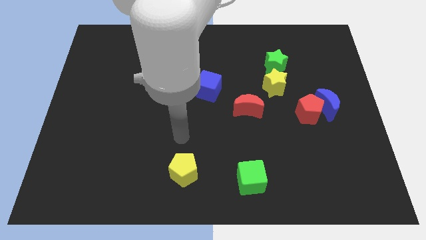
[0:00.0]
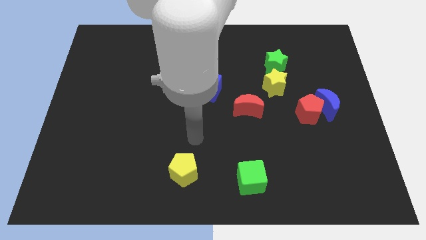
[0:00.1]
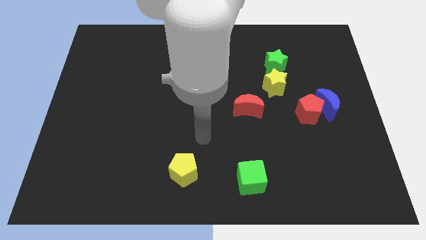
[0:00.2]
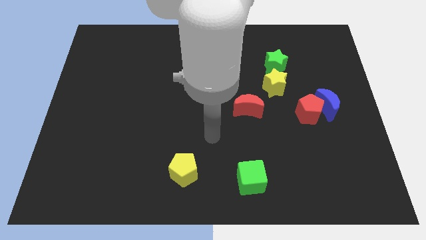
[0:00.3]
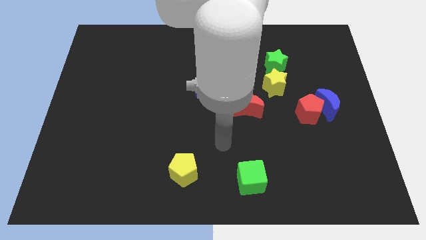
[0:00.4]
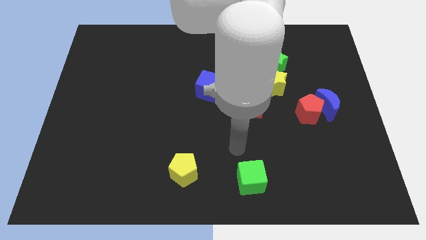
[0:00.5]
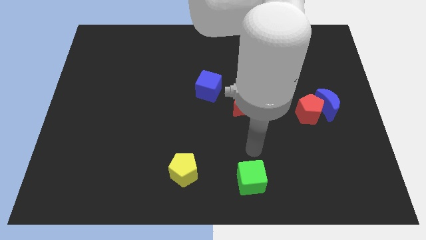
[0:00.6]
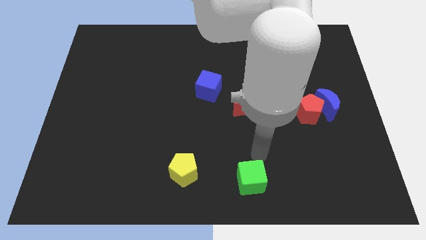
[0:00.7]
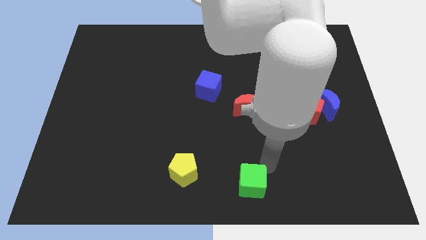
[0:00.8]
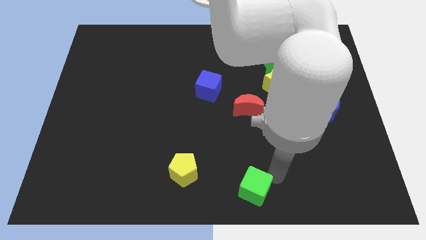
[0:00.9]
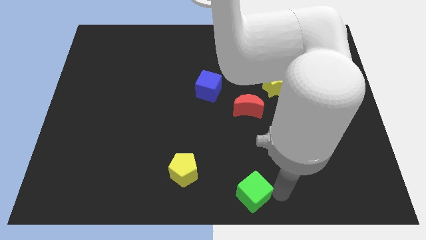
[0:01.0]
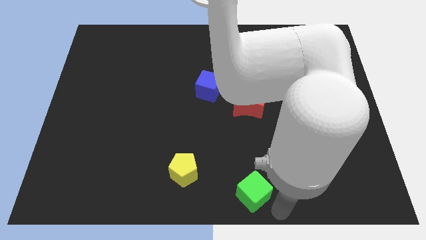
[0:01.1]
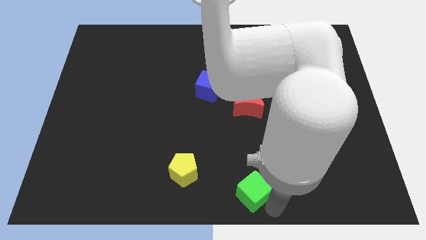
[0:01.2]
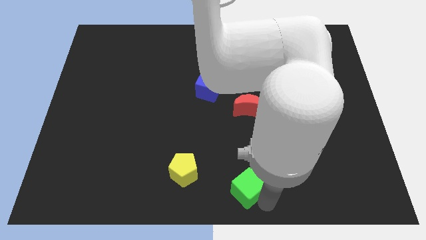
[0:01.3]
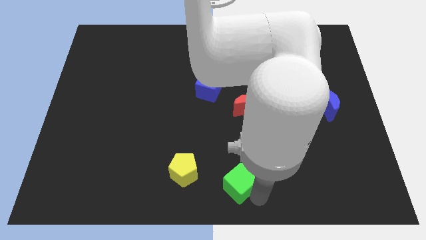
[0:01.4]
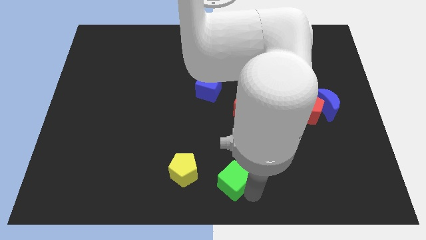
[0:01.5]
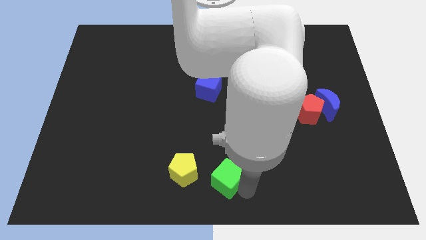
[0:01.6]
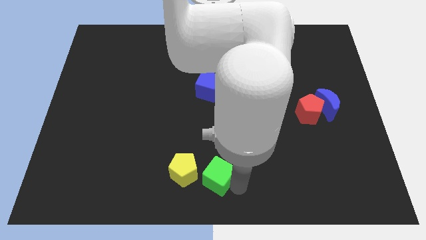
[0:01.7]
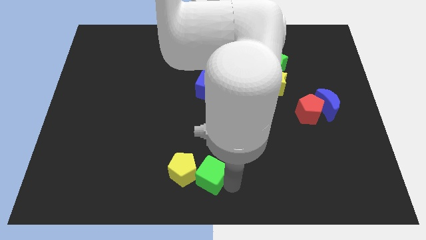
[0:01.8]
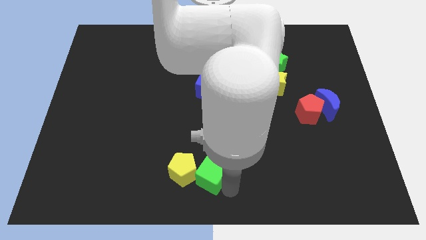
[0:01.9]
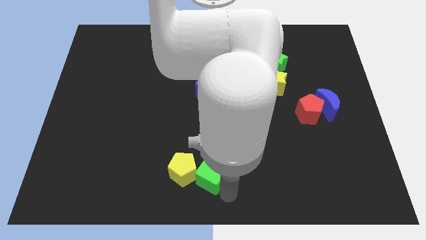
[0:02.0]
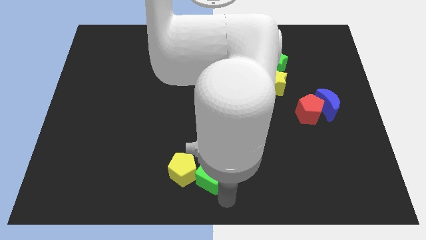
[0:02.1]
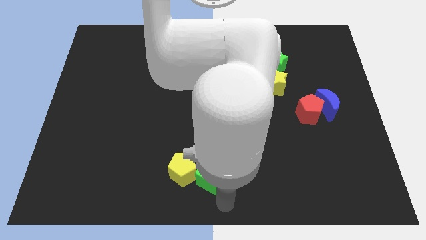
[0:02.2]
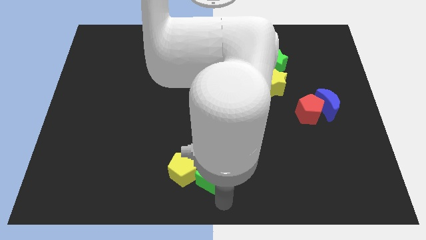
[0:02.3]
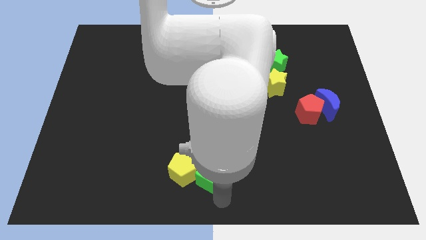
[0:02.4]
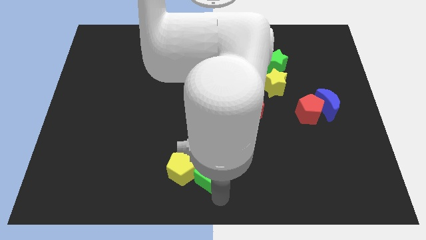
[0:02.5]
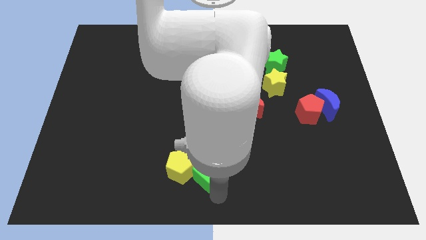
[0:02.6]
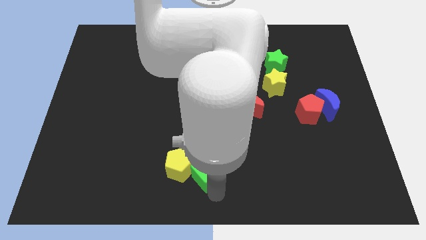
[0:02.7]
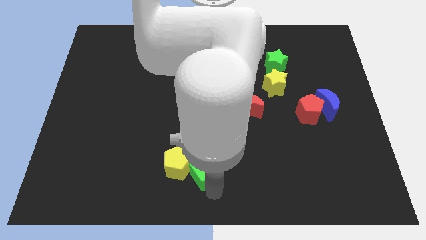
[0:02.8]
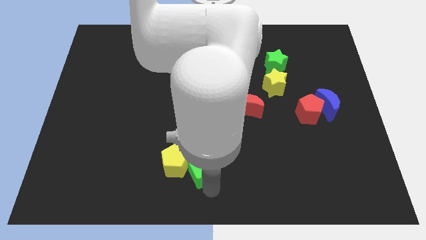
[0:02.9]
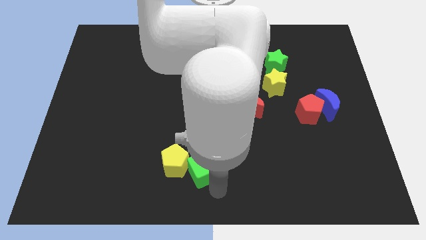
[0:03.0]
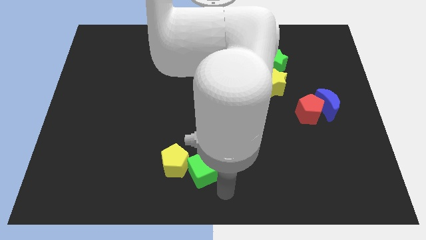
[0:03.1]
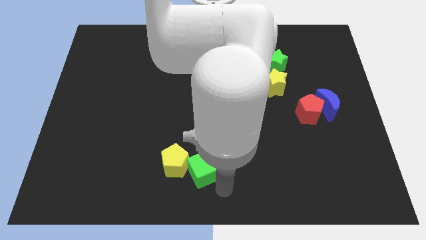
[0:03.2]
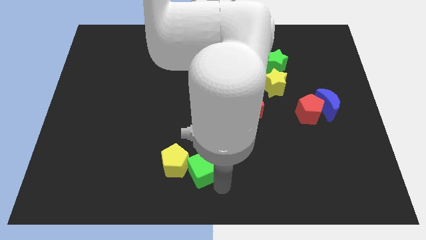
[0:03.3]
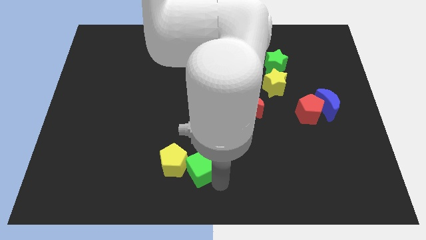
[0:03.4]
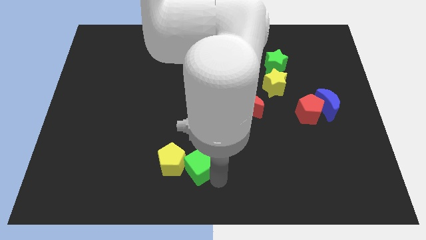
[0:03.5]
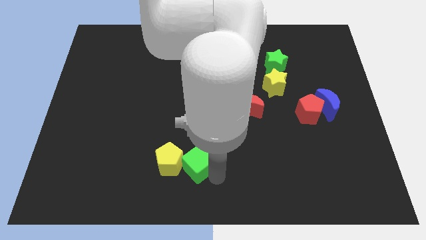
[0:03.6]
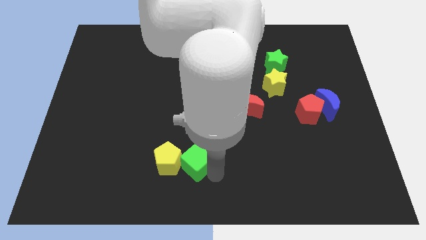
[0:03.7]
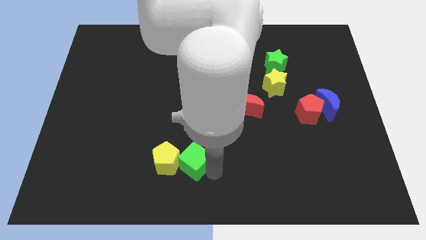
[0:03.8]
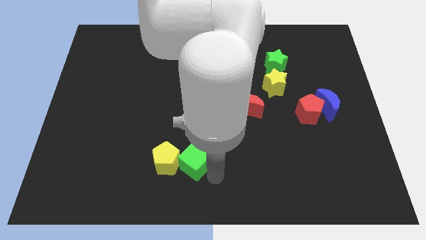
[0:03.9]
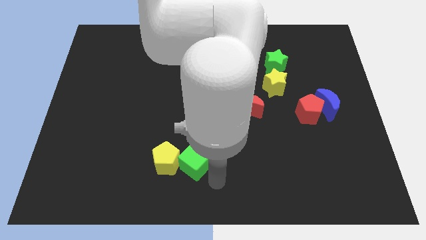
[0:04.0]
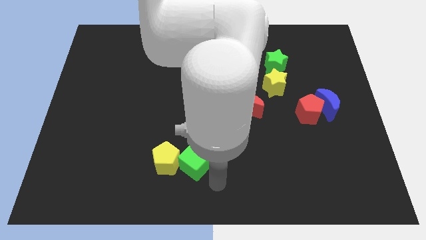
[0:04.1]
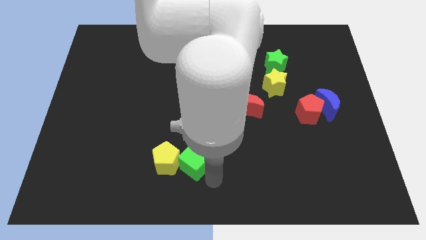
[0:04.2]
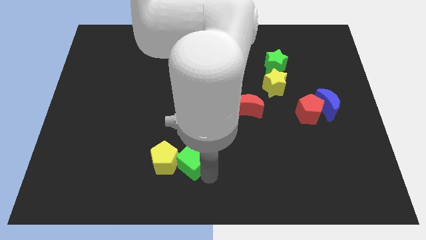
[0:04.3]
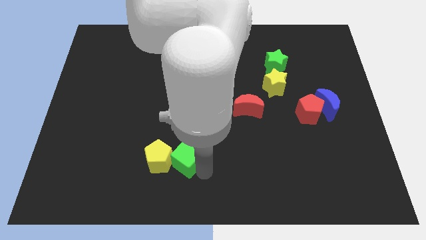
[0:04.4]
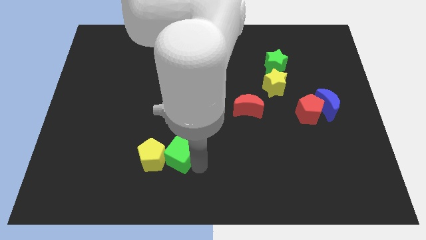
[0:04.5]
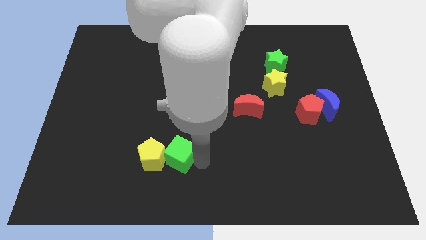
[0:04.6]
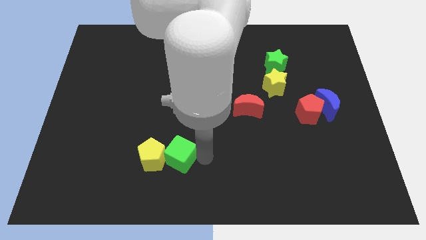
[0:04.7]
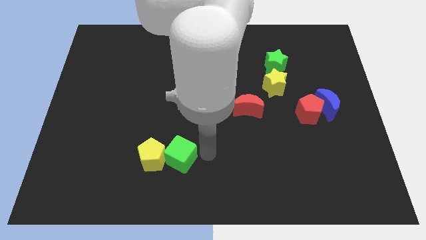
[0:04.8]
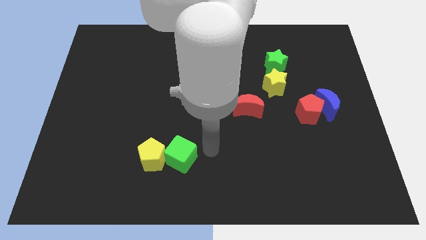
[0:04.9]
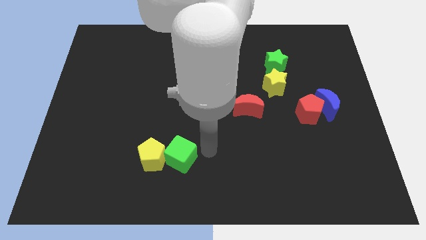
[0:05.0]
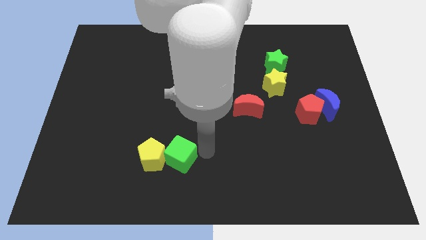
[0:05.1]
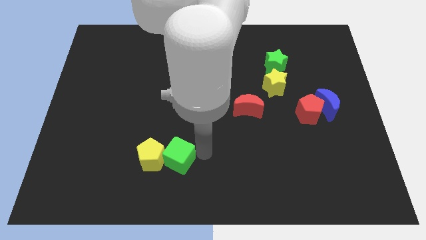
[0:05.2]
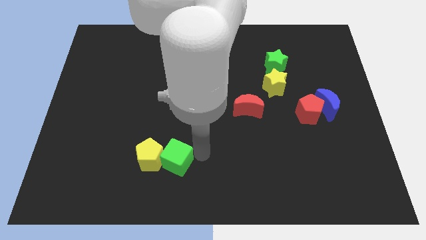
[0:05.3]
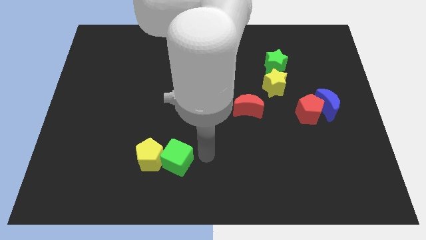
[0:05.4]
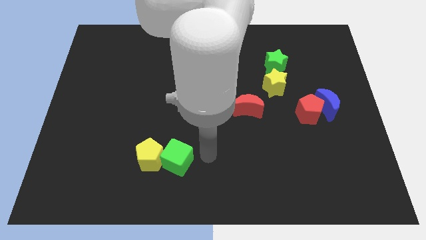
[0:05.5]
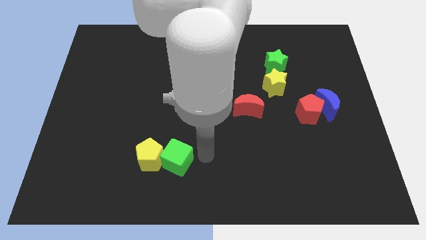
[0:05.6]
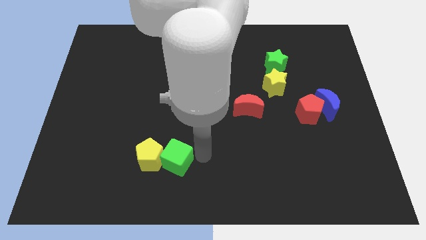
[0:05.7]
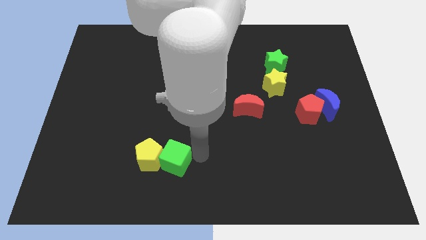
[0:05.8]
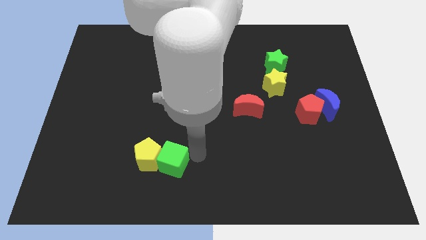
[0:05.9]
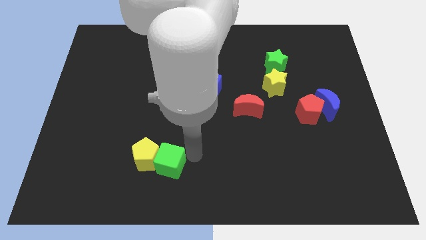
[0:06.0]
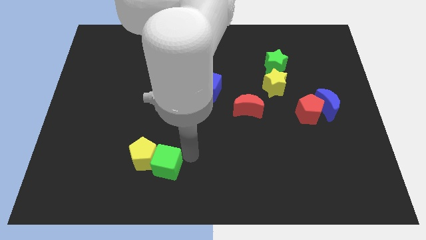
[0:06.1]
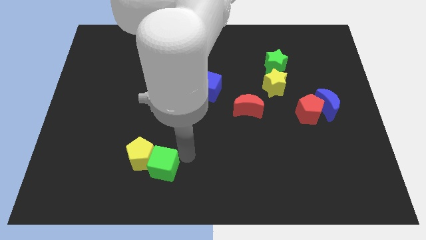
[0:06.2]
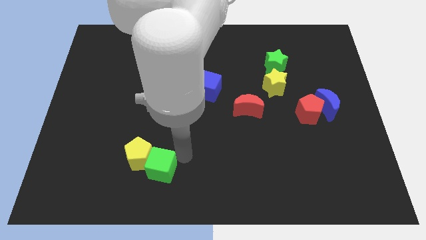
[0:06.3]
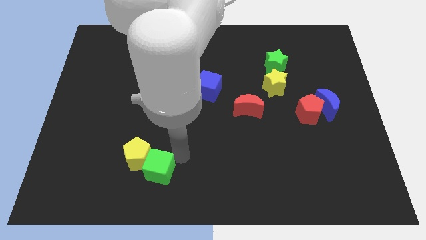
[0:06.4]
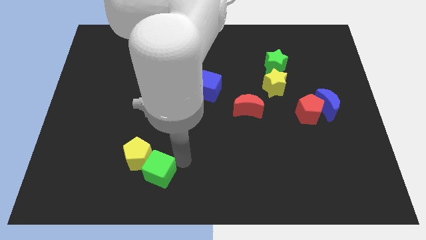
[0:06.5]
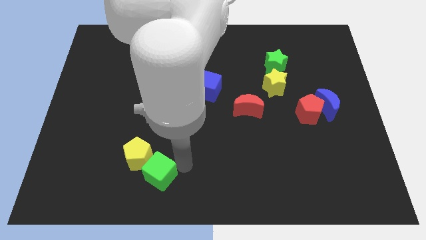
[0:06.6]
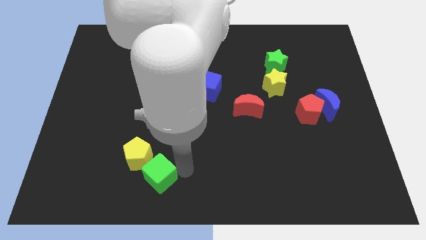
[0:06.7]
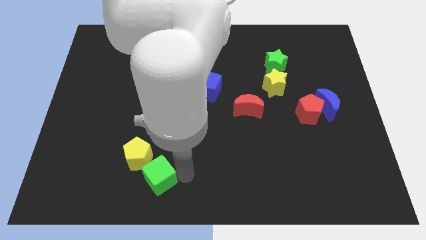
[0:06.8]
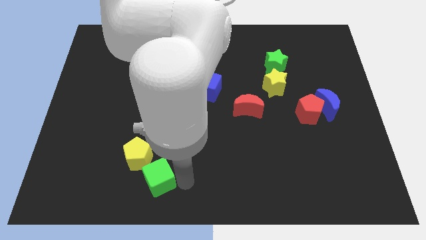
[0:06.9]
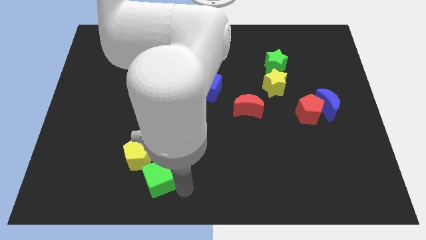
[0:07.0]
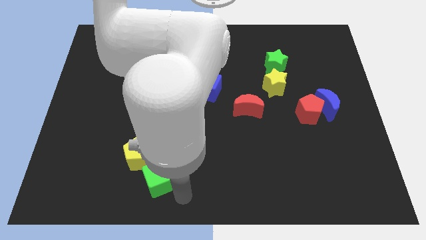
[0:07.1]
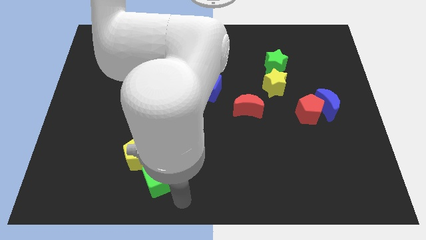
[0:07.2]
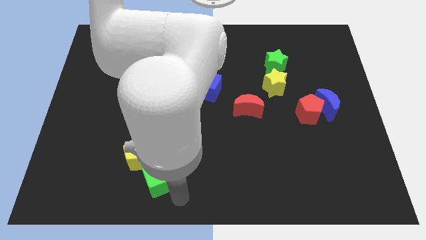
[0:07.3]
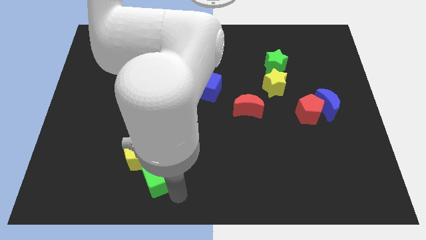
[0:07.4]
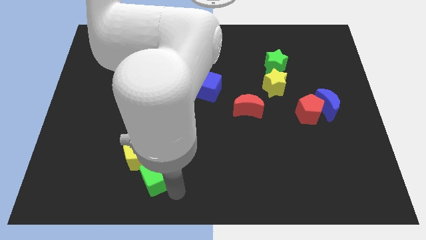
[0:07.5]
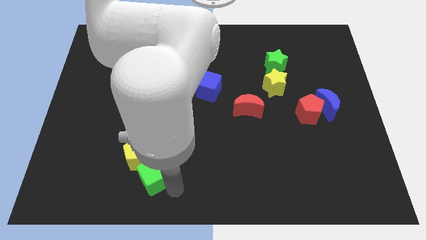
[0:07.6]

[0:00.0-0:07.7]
push the green cube to the left

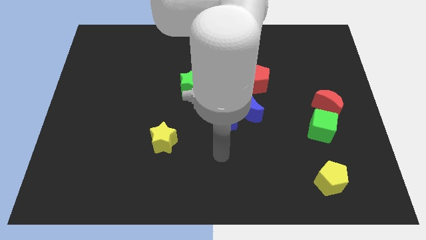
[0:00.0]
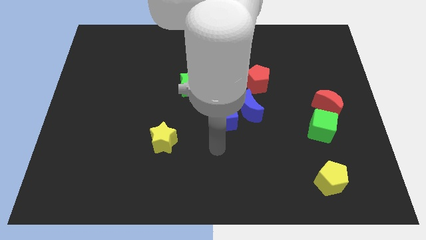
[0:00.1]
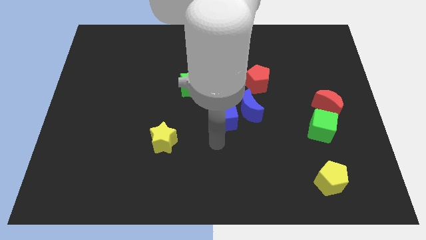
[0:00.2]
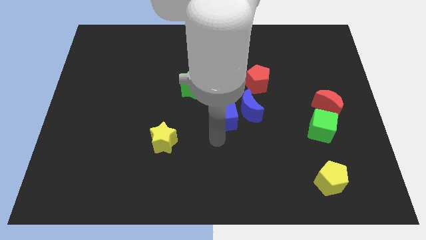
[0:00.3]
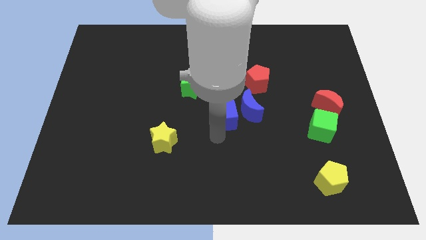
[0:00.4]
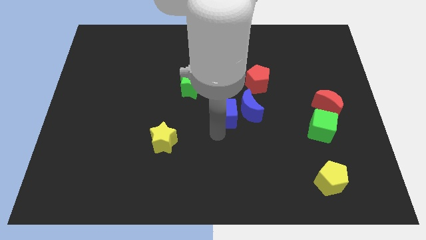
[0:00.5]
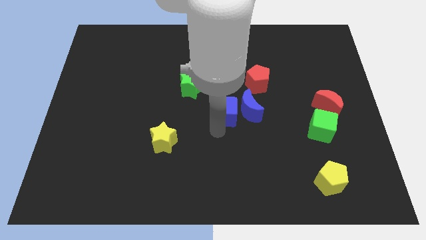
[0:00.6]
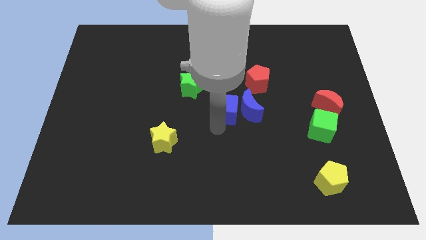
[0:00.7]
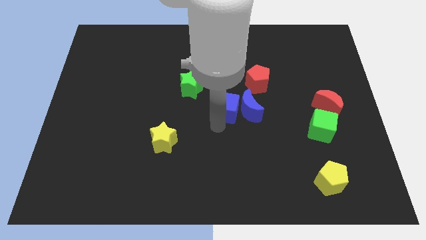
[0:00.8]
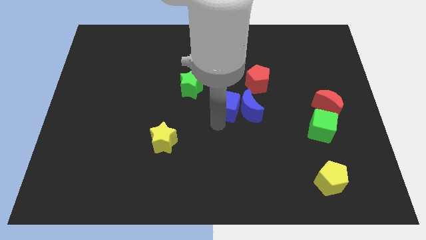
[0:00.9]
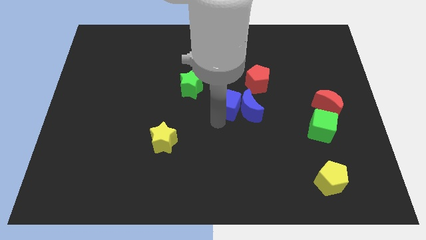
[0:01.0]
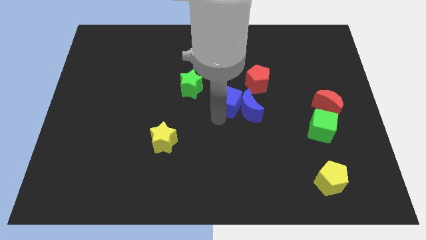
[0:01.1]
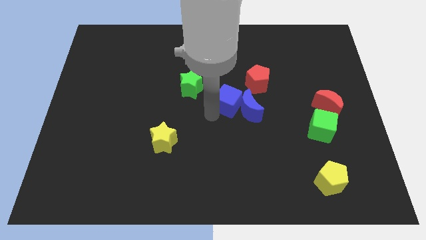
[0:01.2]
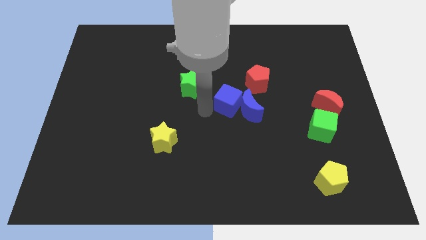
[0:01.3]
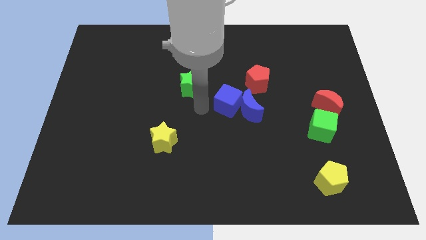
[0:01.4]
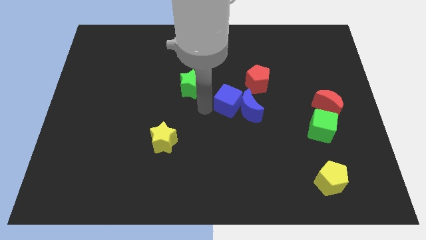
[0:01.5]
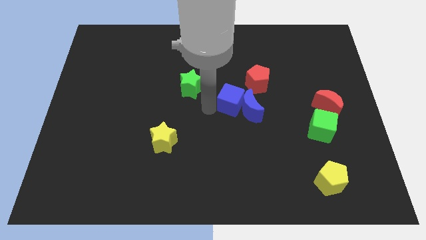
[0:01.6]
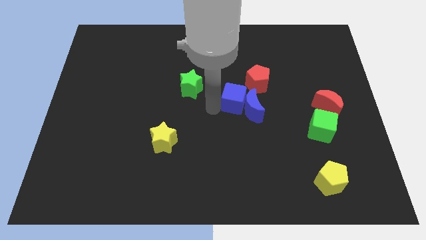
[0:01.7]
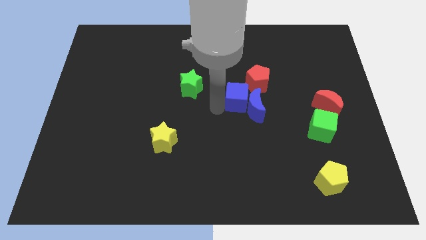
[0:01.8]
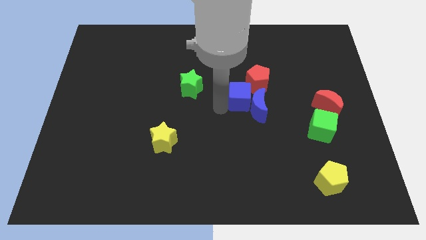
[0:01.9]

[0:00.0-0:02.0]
slide the blue cube a bit up and then to the right
